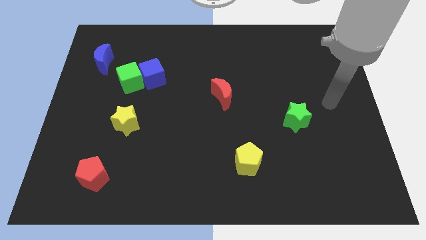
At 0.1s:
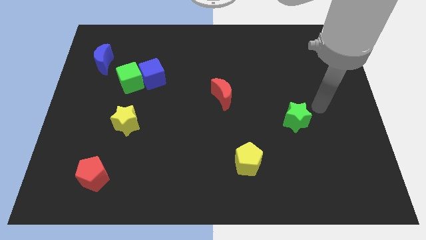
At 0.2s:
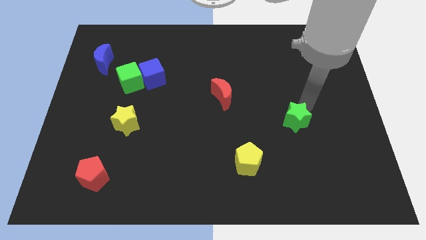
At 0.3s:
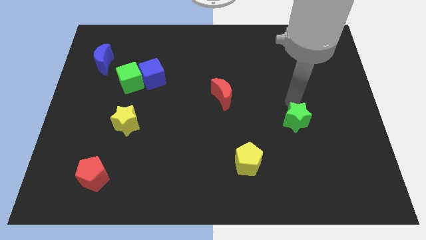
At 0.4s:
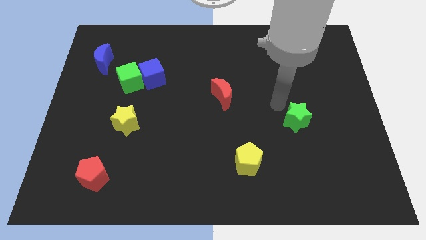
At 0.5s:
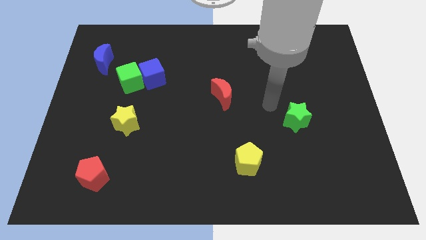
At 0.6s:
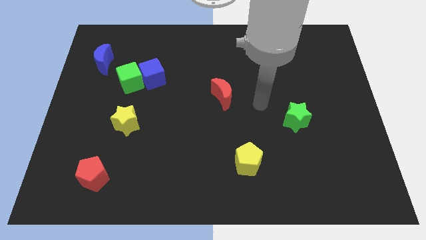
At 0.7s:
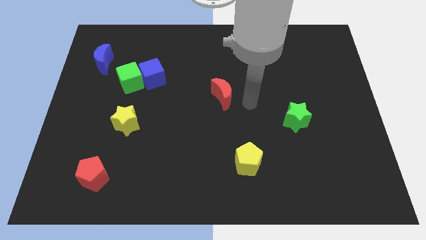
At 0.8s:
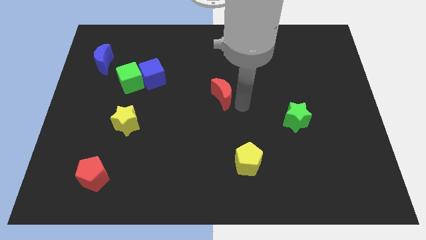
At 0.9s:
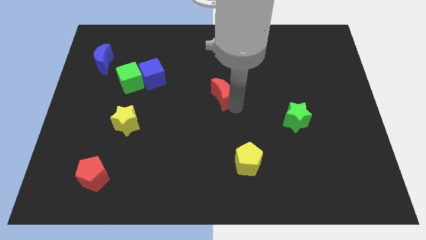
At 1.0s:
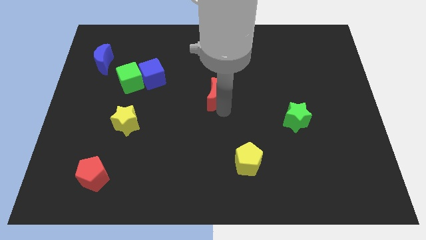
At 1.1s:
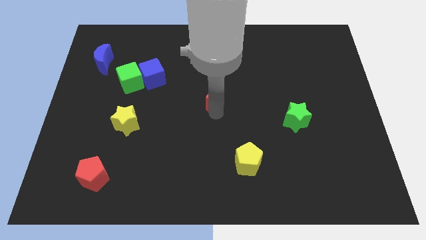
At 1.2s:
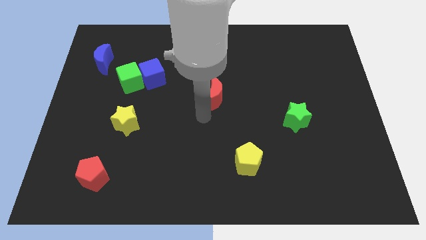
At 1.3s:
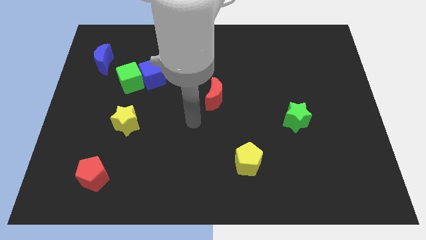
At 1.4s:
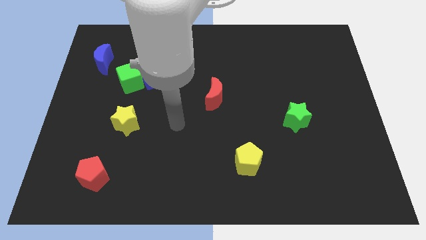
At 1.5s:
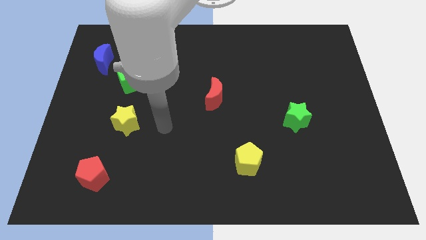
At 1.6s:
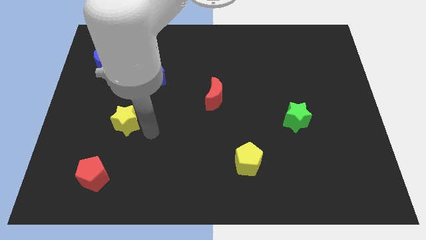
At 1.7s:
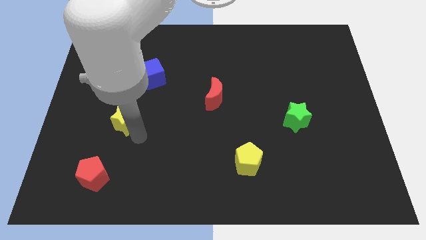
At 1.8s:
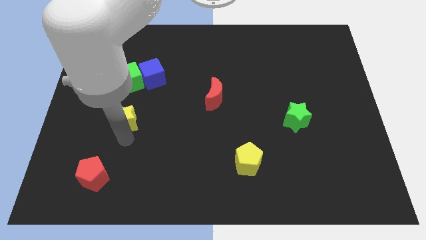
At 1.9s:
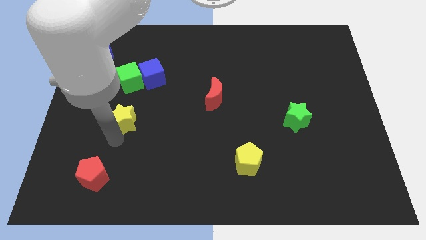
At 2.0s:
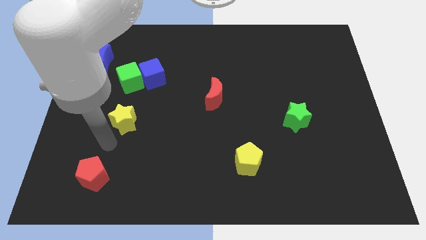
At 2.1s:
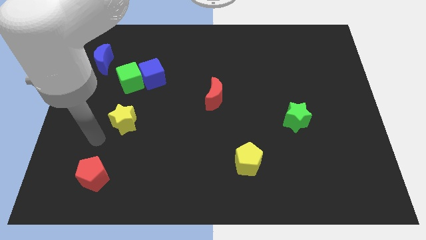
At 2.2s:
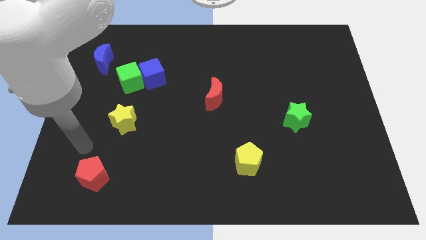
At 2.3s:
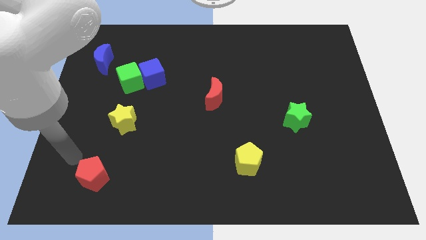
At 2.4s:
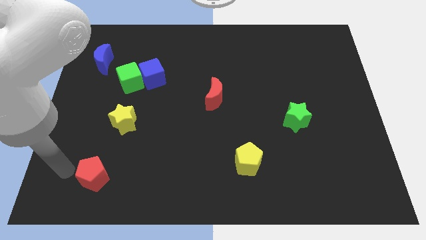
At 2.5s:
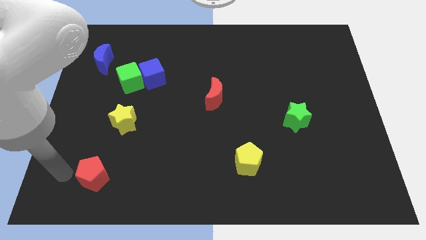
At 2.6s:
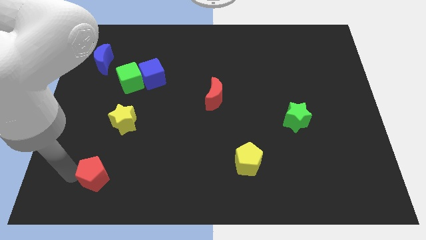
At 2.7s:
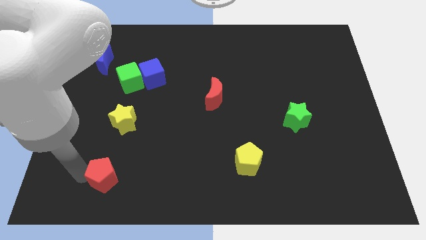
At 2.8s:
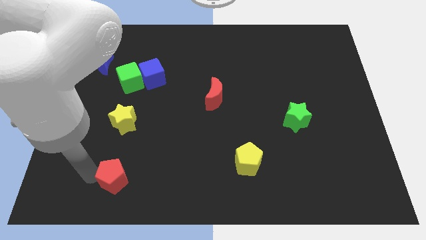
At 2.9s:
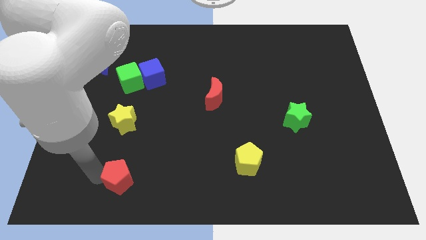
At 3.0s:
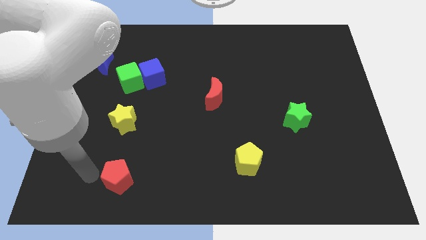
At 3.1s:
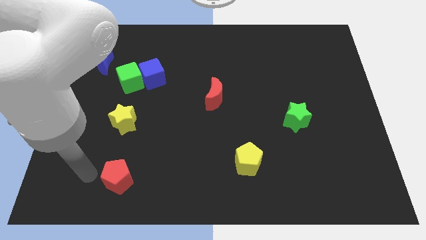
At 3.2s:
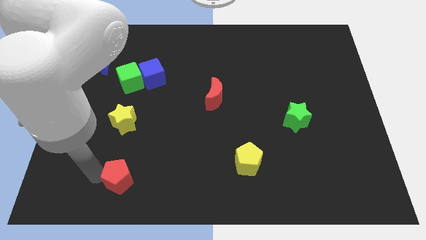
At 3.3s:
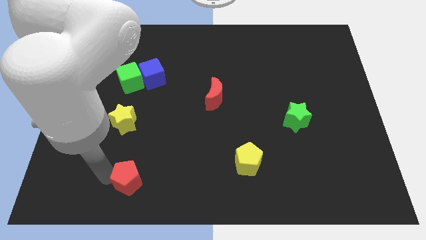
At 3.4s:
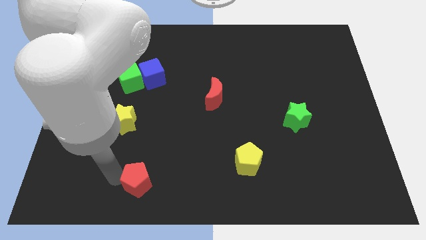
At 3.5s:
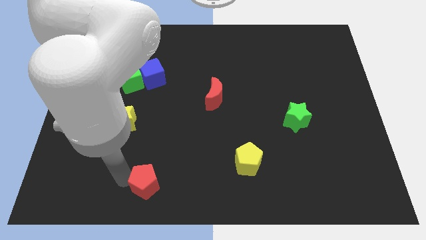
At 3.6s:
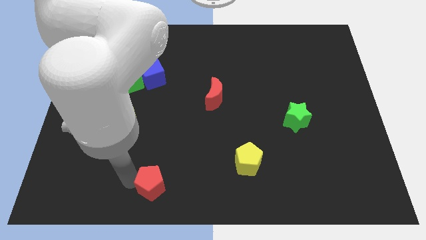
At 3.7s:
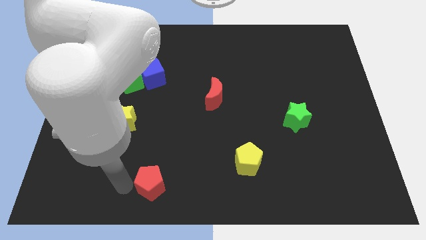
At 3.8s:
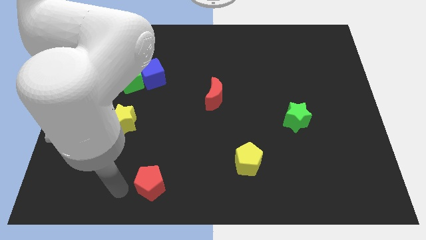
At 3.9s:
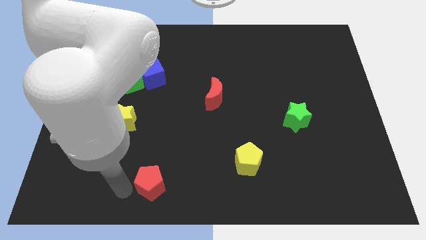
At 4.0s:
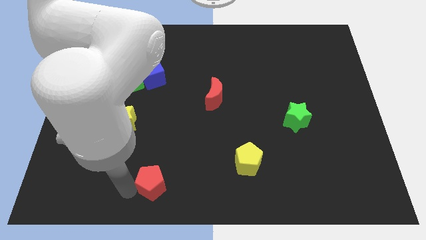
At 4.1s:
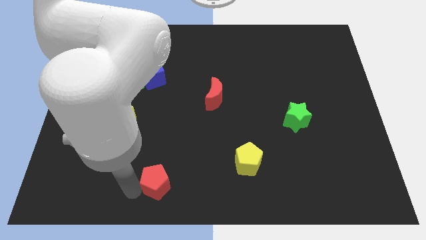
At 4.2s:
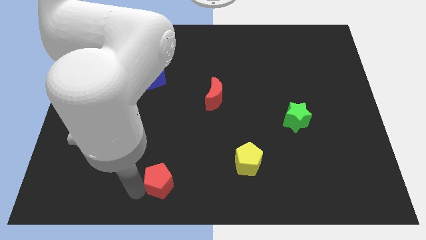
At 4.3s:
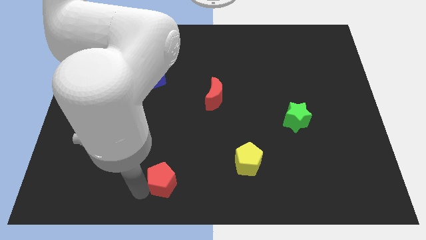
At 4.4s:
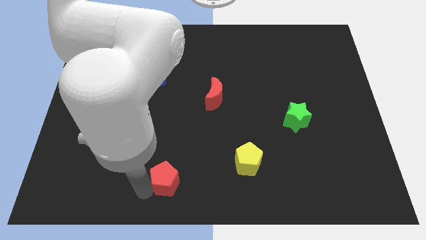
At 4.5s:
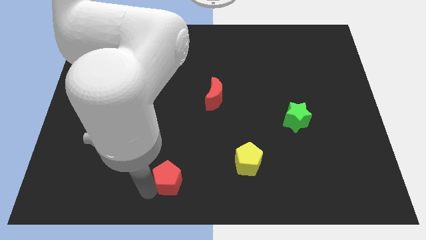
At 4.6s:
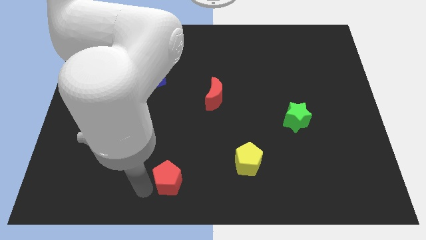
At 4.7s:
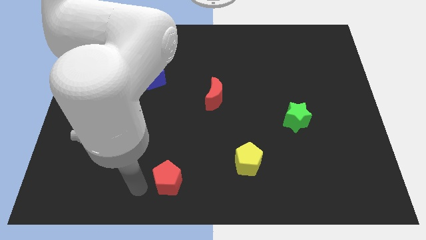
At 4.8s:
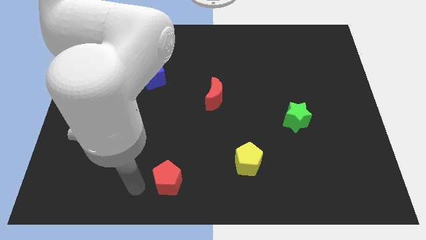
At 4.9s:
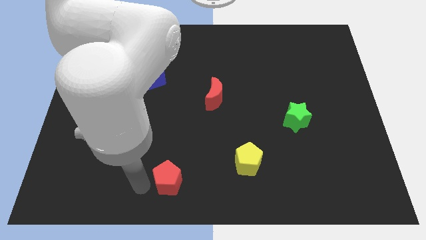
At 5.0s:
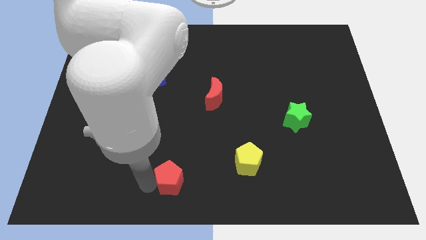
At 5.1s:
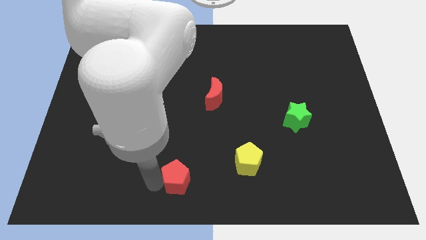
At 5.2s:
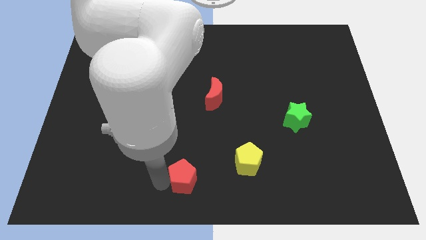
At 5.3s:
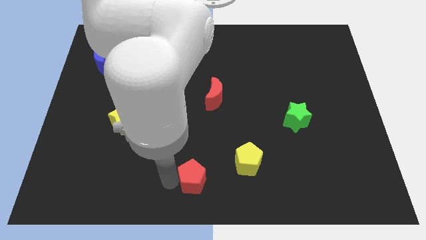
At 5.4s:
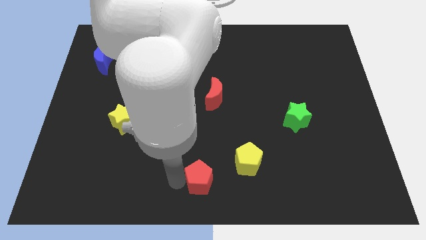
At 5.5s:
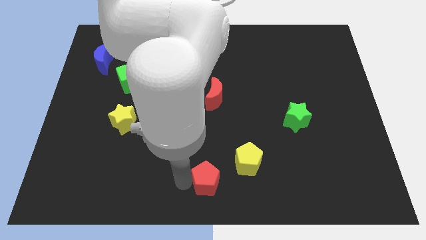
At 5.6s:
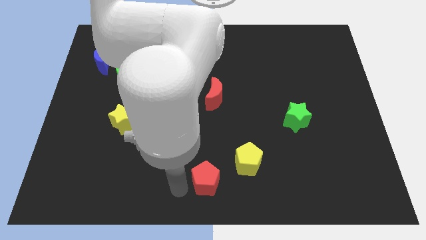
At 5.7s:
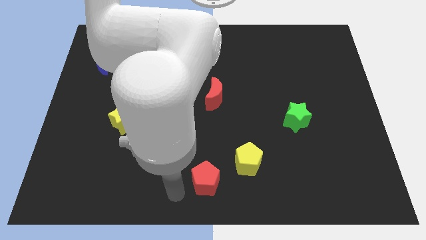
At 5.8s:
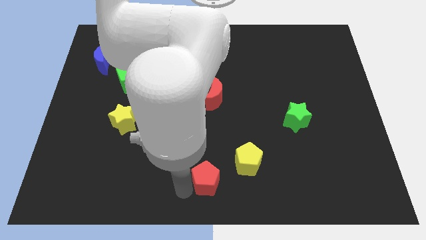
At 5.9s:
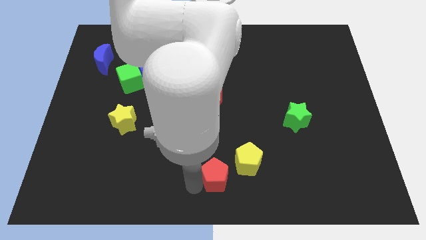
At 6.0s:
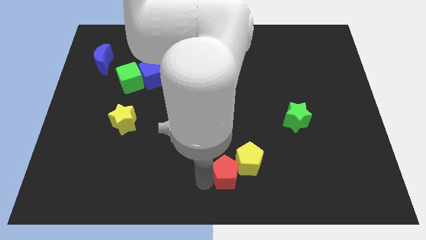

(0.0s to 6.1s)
slide the red pentagon close to the yellow pentagon

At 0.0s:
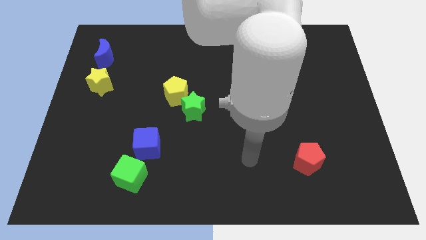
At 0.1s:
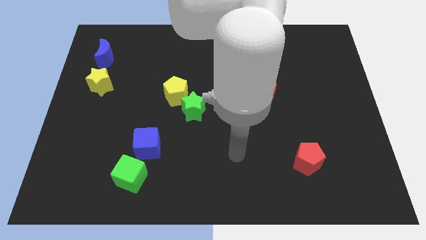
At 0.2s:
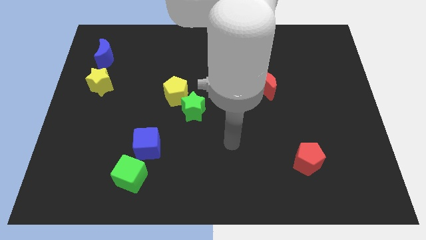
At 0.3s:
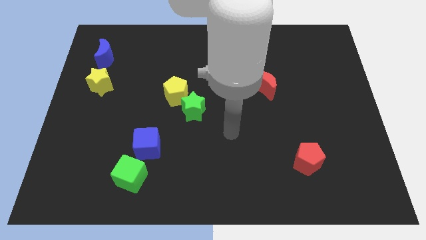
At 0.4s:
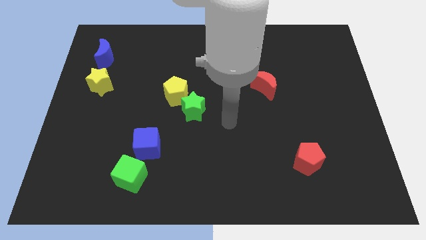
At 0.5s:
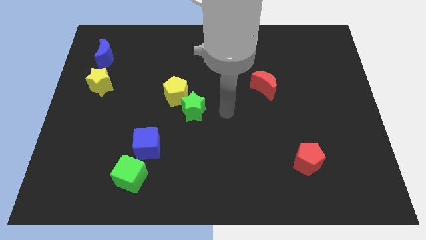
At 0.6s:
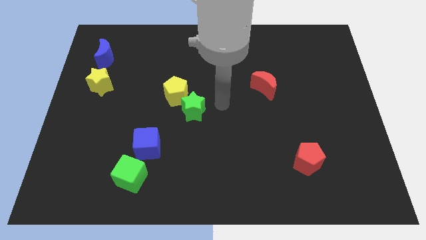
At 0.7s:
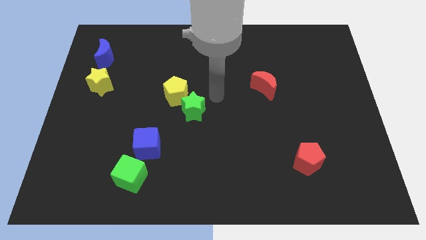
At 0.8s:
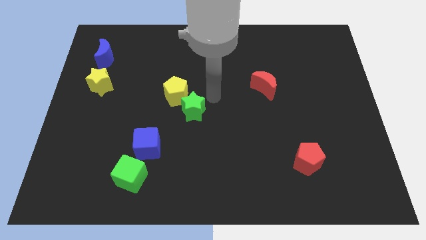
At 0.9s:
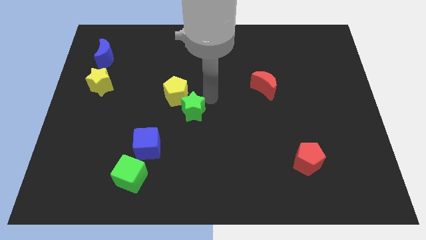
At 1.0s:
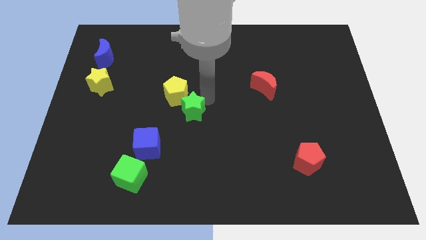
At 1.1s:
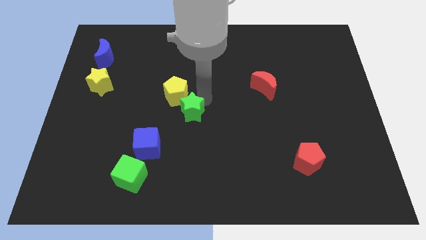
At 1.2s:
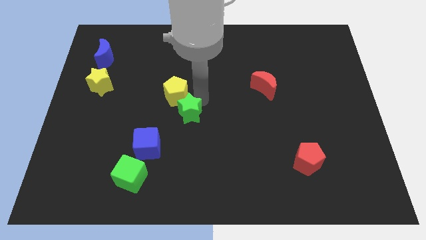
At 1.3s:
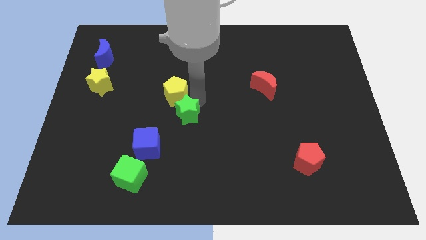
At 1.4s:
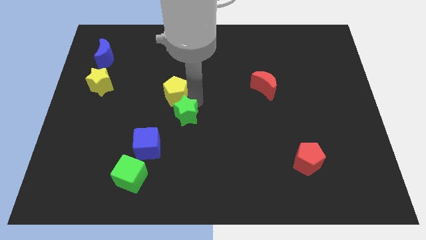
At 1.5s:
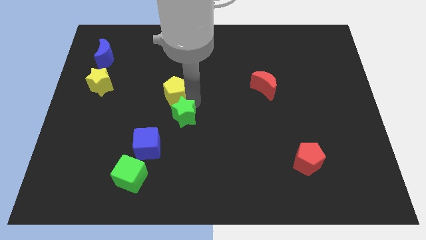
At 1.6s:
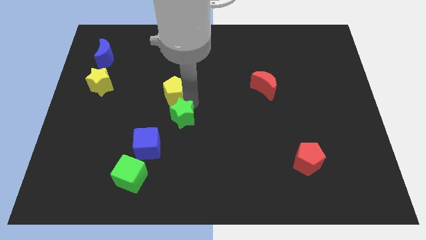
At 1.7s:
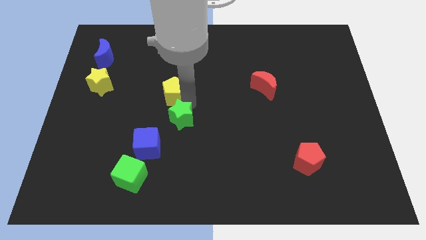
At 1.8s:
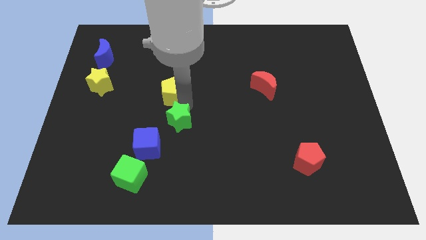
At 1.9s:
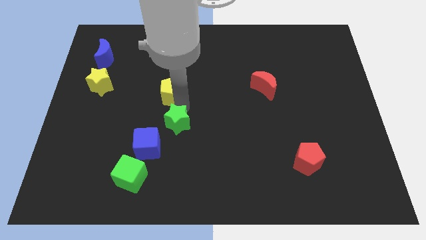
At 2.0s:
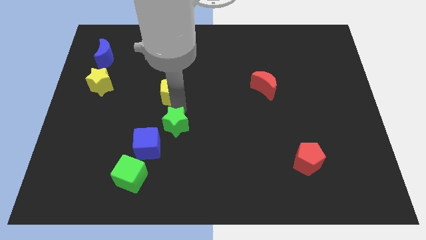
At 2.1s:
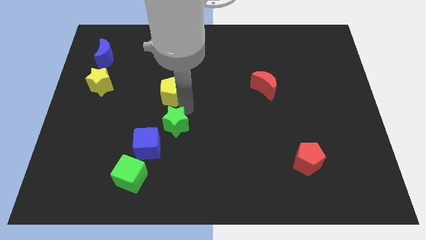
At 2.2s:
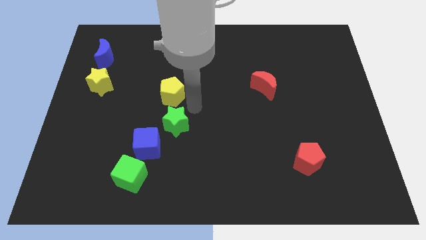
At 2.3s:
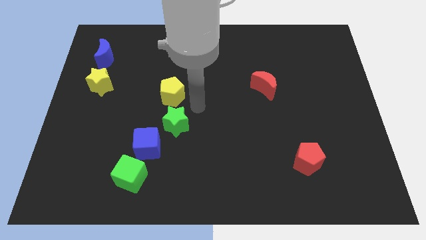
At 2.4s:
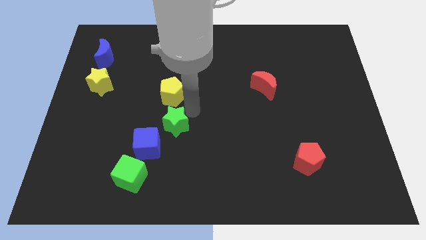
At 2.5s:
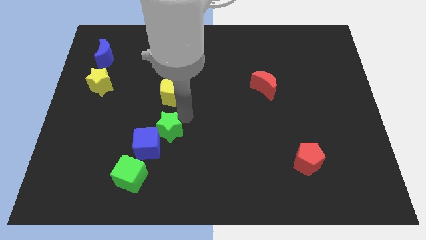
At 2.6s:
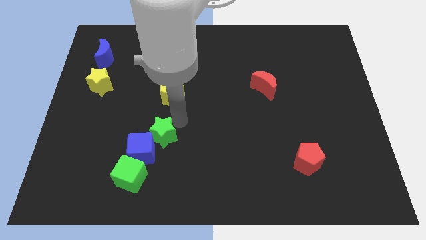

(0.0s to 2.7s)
move the green star next to the blue cube
